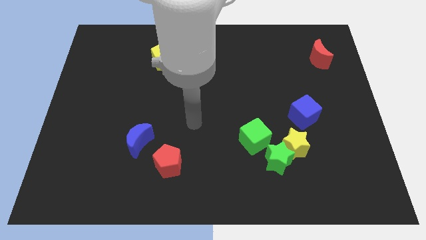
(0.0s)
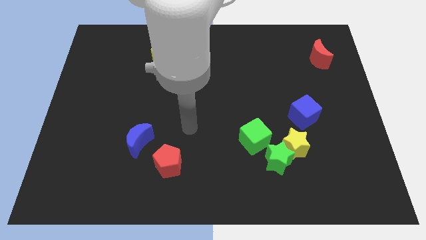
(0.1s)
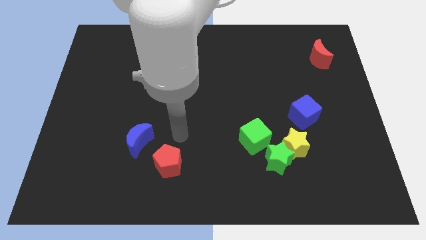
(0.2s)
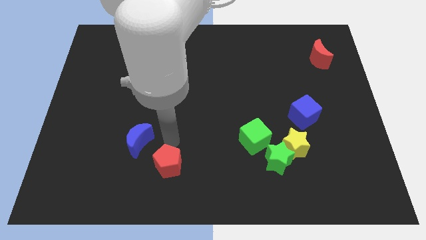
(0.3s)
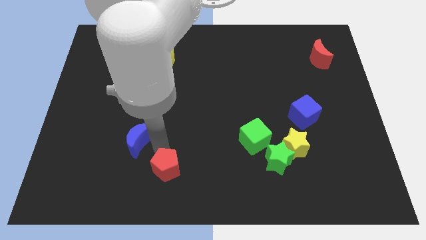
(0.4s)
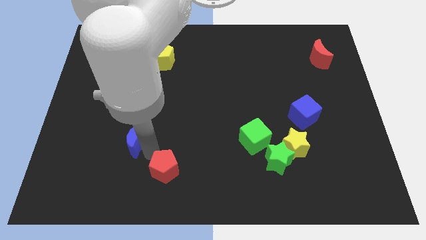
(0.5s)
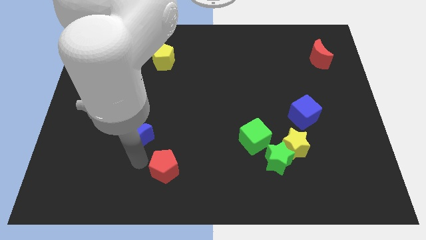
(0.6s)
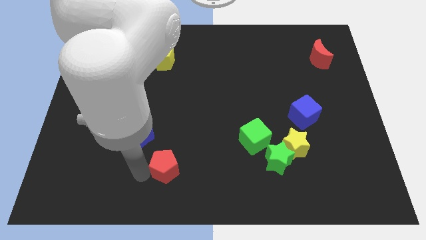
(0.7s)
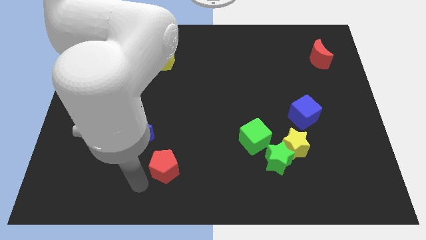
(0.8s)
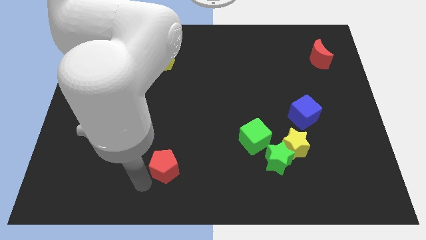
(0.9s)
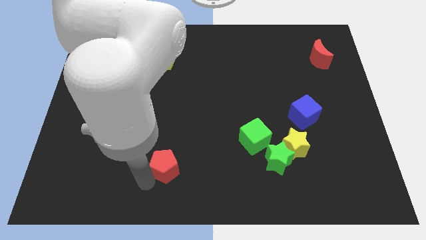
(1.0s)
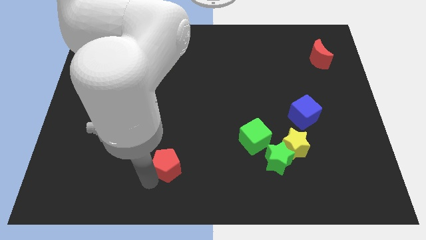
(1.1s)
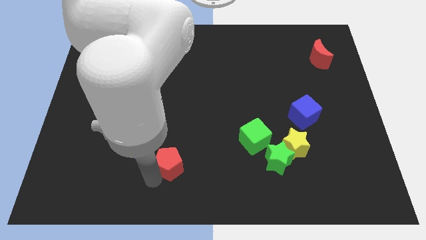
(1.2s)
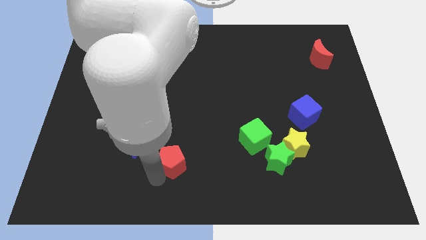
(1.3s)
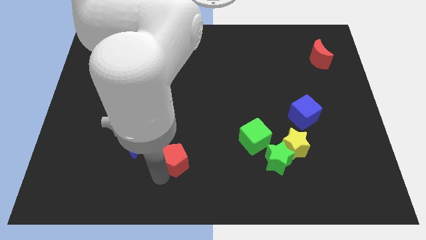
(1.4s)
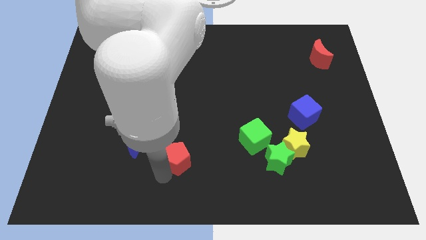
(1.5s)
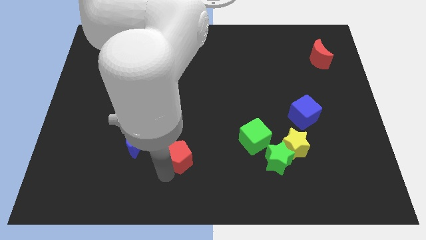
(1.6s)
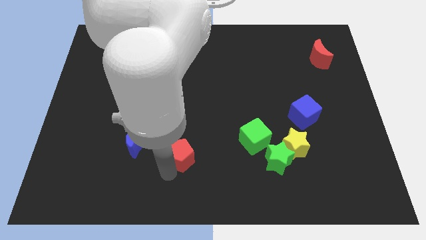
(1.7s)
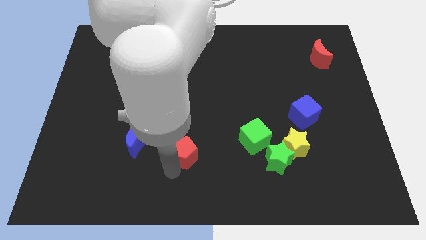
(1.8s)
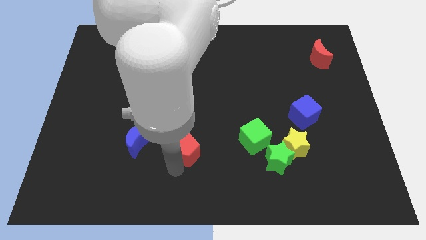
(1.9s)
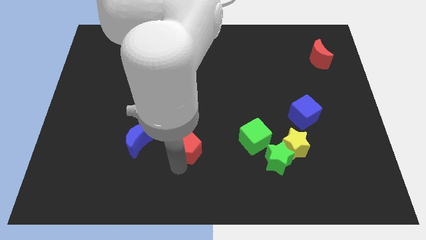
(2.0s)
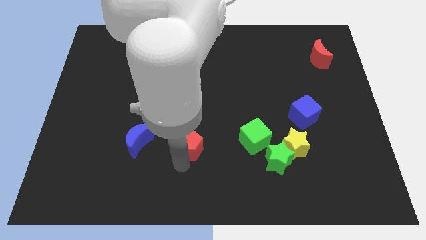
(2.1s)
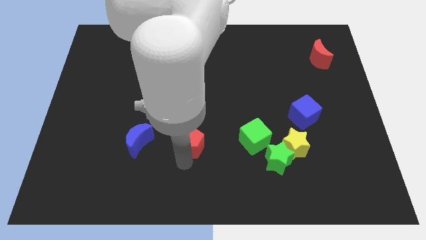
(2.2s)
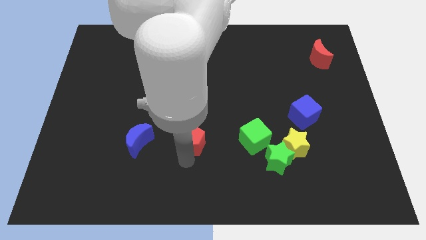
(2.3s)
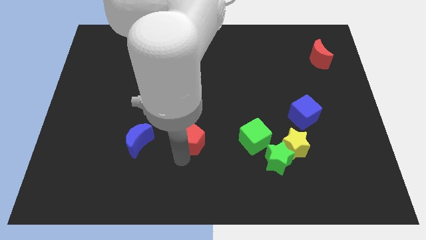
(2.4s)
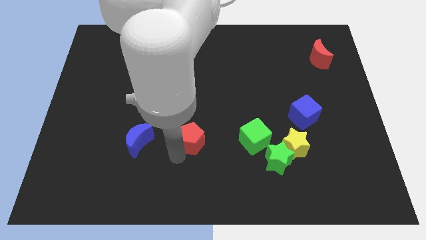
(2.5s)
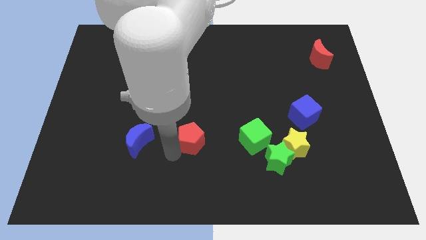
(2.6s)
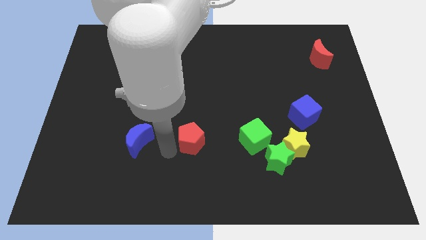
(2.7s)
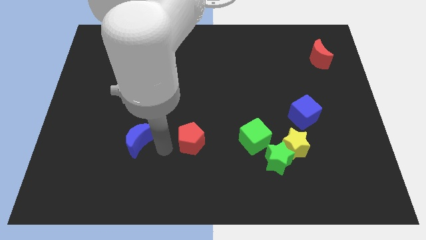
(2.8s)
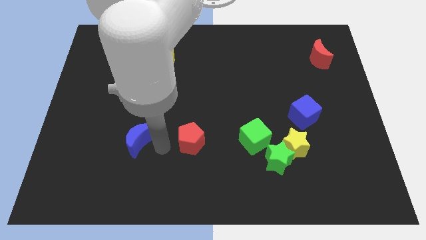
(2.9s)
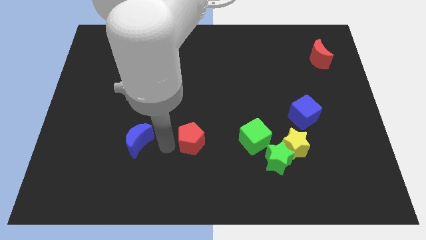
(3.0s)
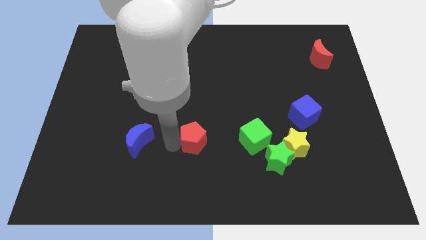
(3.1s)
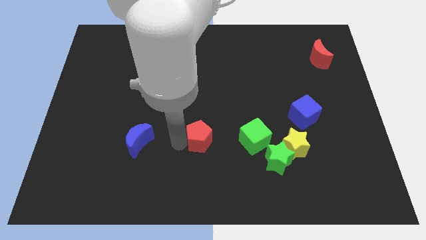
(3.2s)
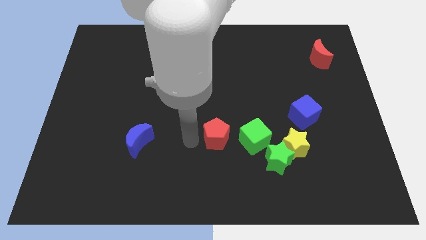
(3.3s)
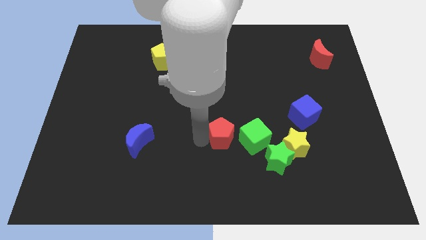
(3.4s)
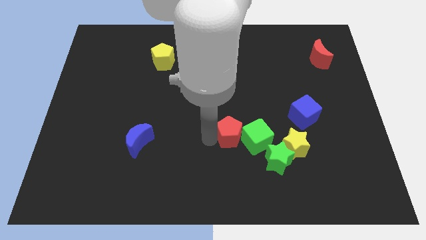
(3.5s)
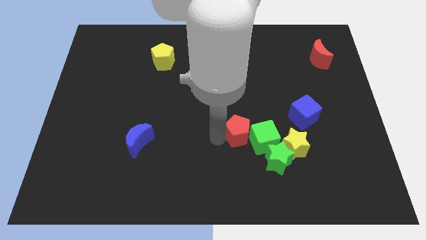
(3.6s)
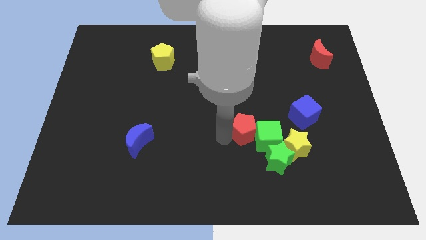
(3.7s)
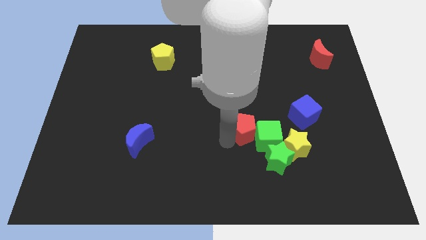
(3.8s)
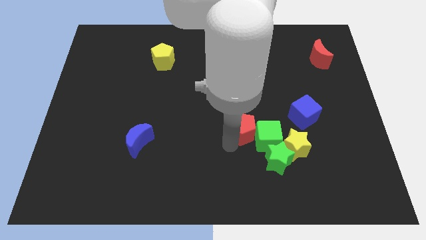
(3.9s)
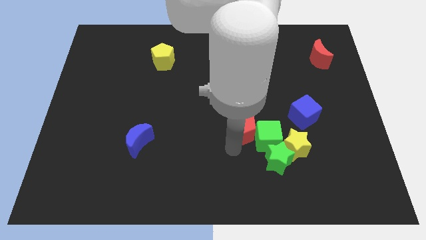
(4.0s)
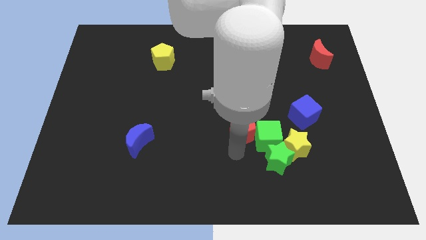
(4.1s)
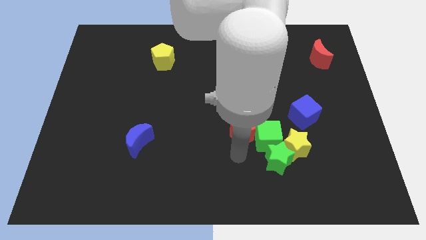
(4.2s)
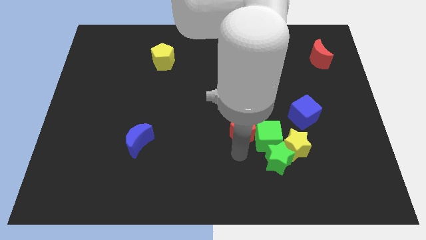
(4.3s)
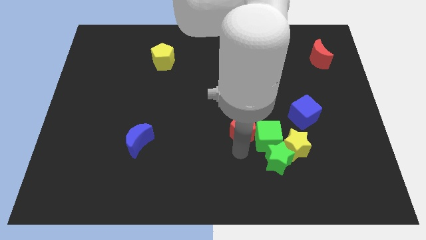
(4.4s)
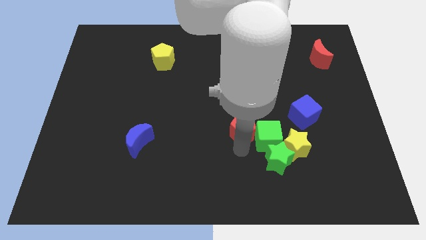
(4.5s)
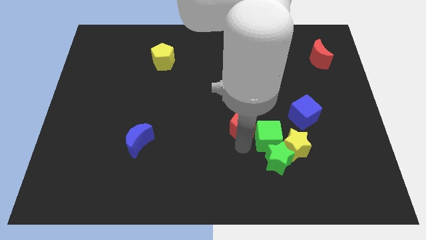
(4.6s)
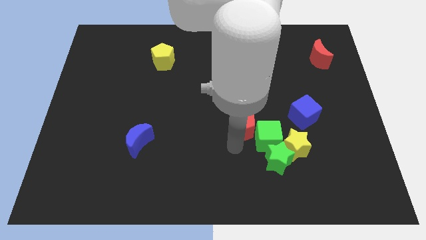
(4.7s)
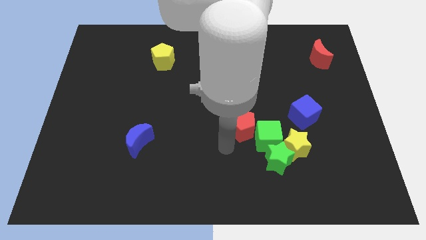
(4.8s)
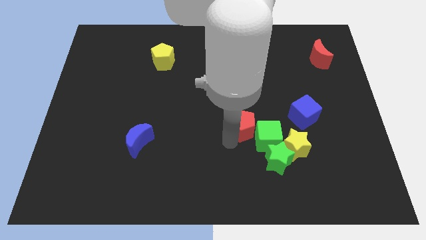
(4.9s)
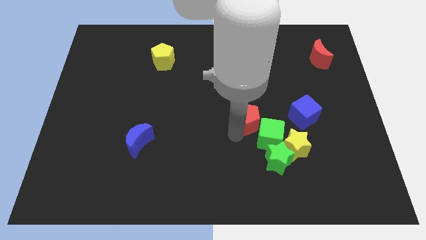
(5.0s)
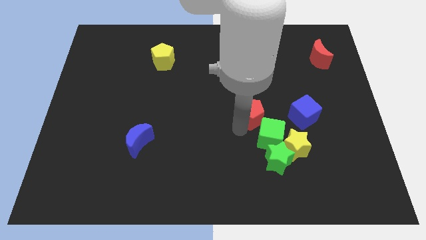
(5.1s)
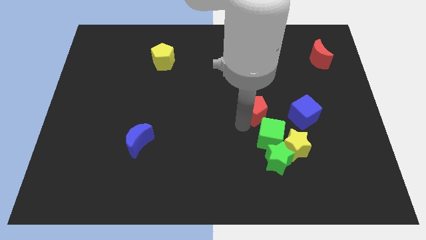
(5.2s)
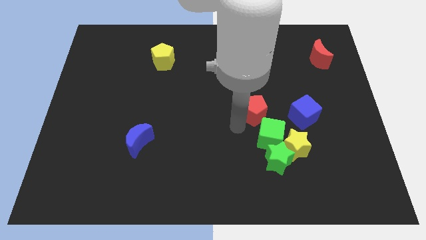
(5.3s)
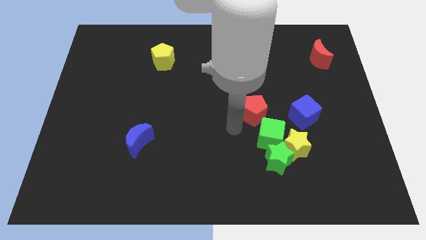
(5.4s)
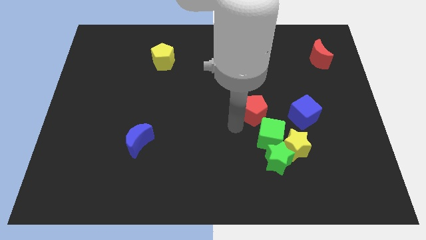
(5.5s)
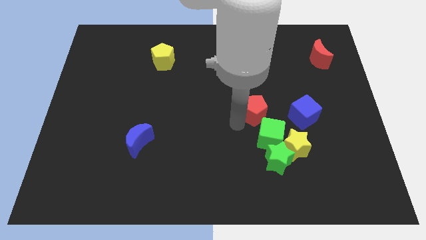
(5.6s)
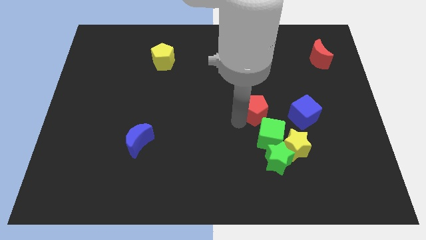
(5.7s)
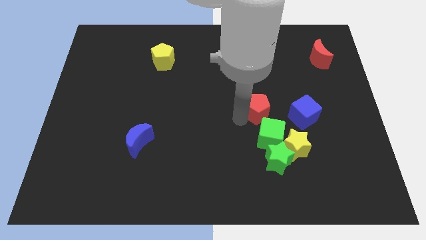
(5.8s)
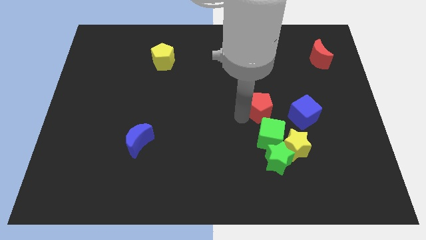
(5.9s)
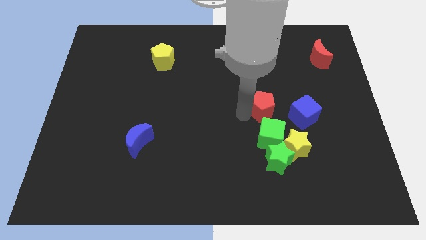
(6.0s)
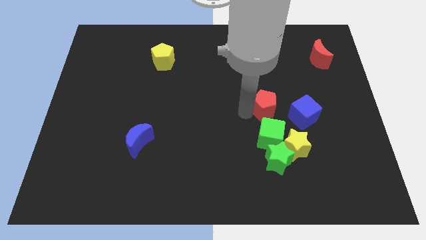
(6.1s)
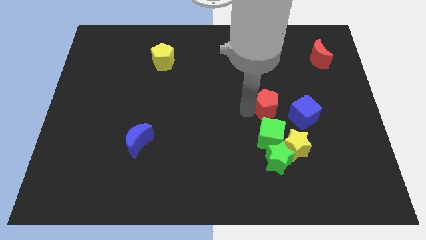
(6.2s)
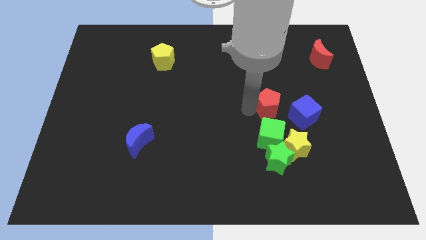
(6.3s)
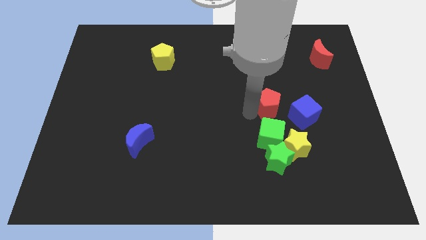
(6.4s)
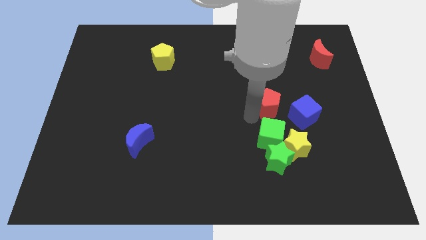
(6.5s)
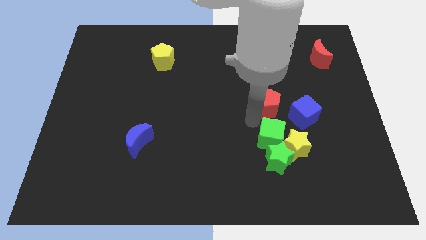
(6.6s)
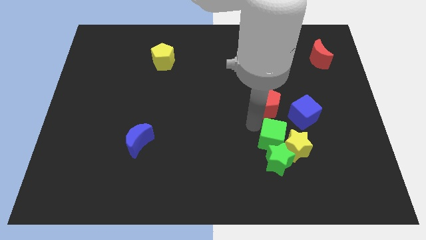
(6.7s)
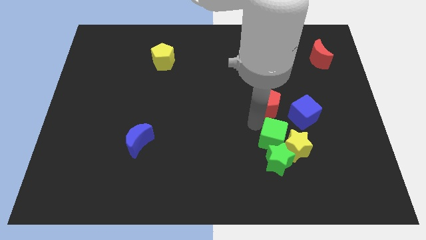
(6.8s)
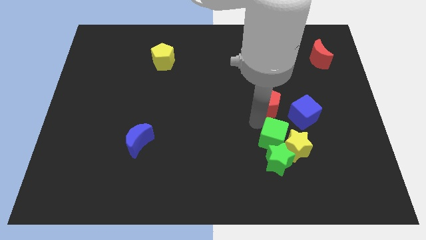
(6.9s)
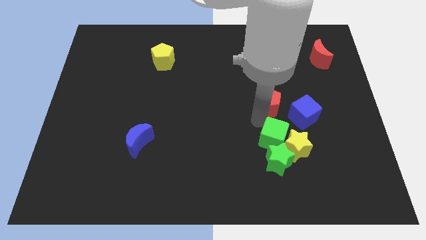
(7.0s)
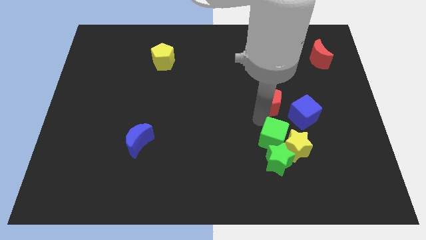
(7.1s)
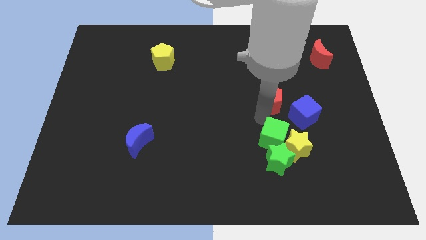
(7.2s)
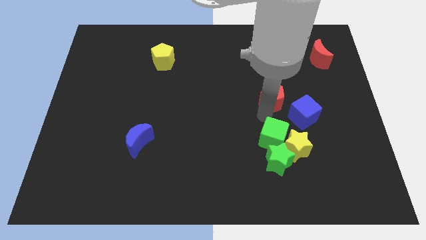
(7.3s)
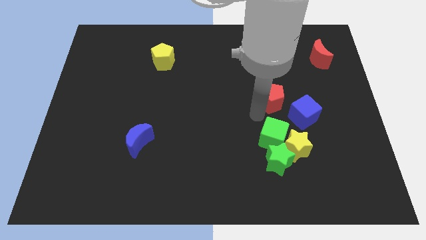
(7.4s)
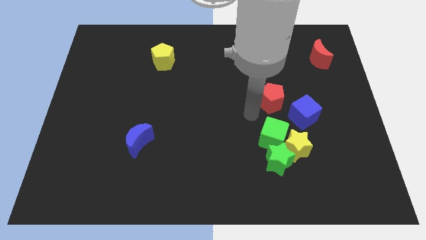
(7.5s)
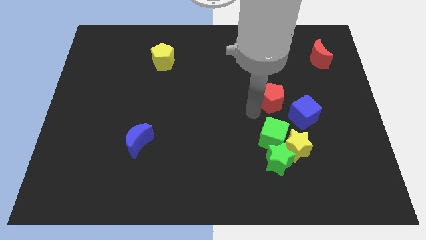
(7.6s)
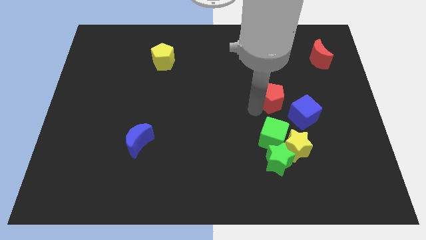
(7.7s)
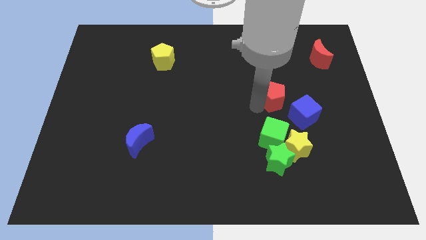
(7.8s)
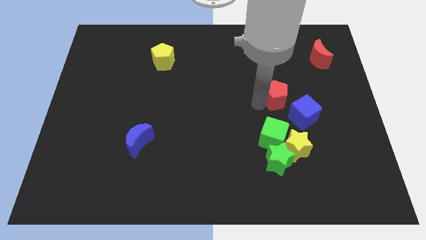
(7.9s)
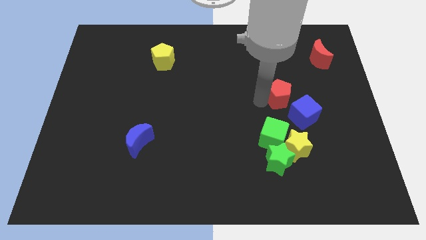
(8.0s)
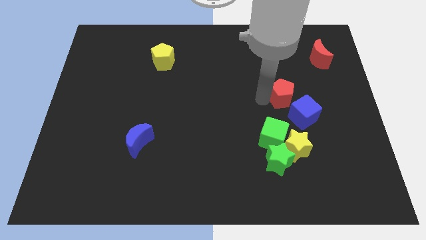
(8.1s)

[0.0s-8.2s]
push the red pentagon above the blue cube
